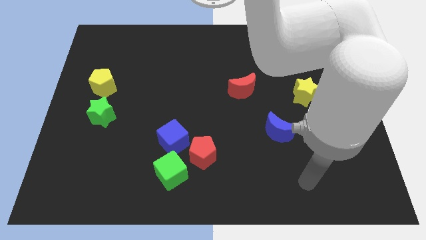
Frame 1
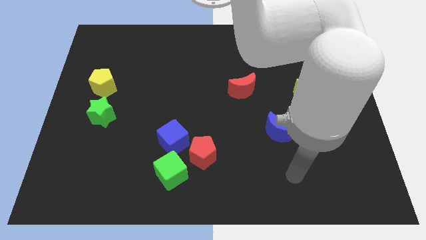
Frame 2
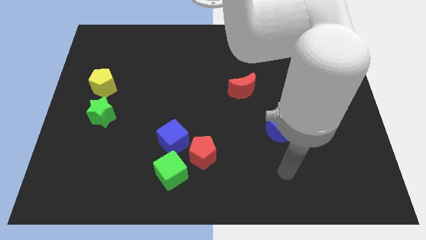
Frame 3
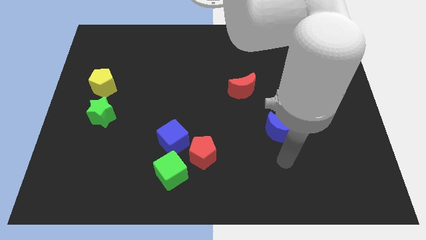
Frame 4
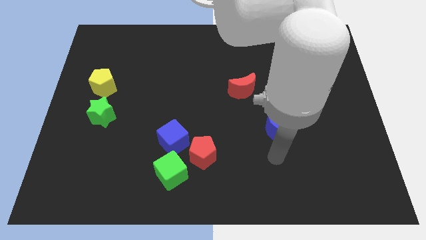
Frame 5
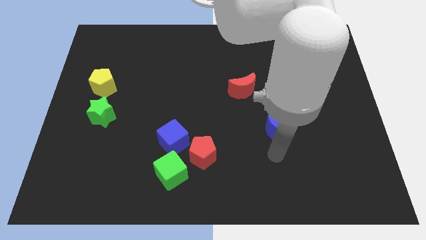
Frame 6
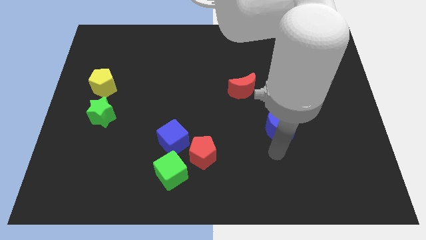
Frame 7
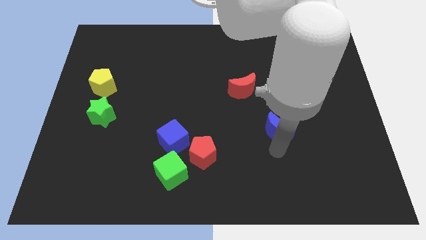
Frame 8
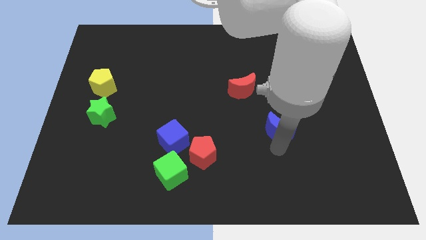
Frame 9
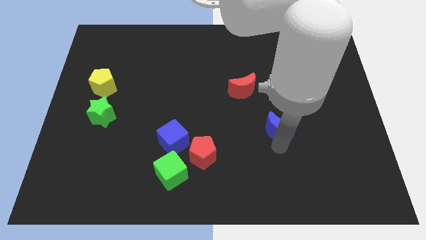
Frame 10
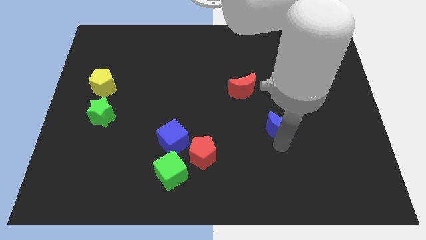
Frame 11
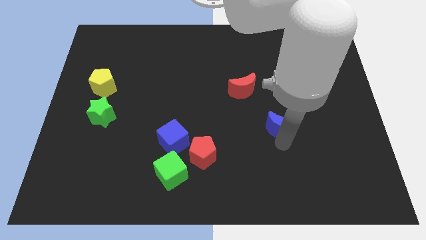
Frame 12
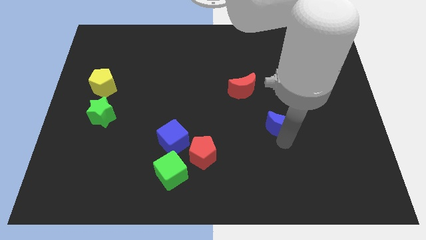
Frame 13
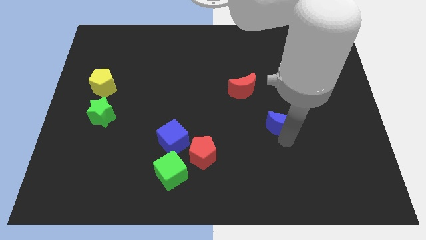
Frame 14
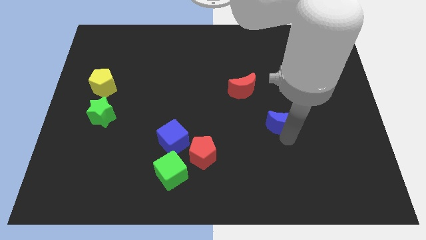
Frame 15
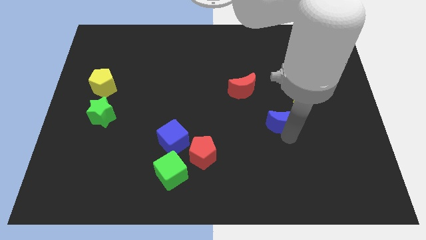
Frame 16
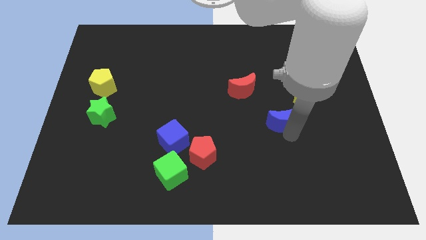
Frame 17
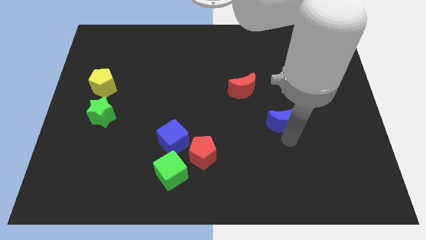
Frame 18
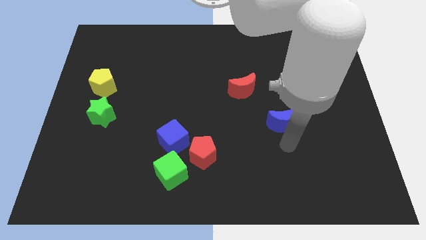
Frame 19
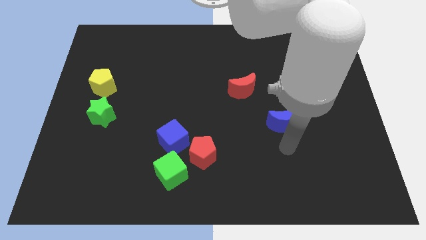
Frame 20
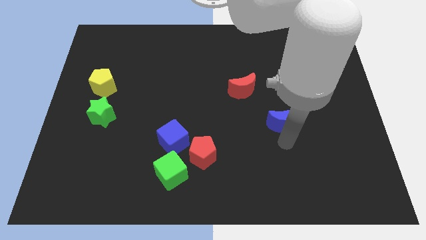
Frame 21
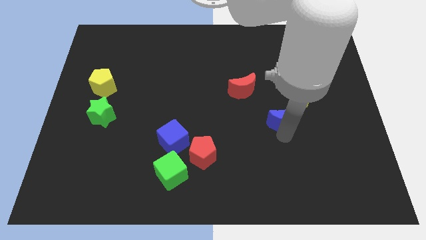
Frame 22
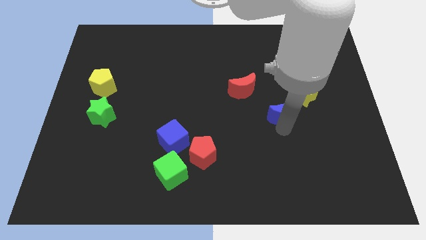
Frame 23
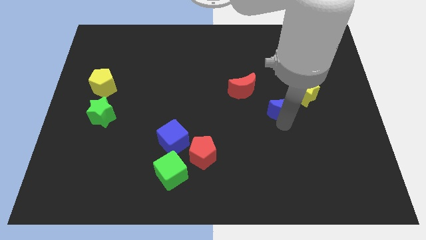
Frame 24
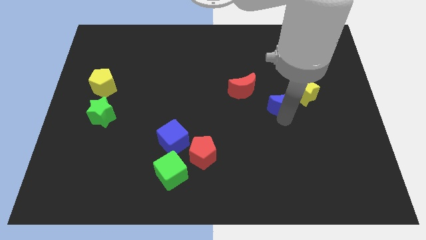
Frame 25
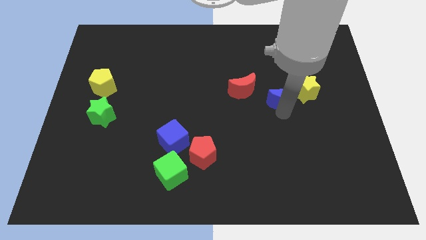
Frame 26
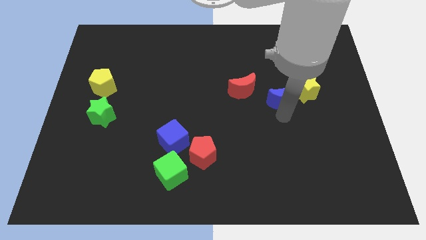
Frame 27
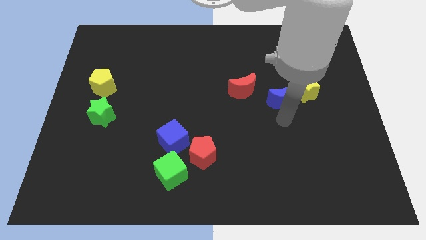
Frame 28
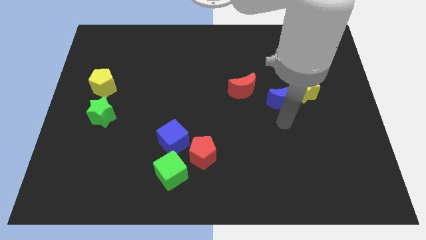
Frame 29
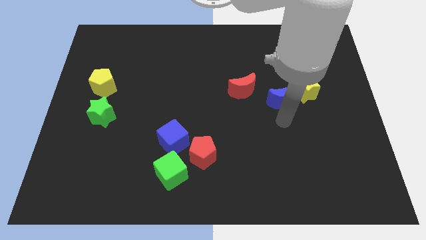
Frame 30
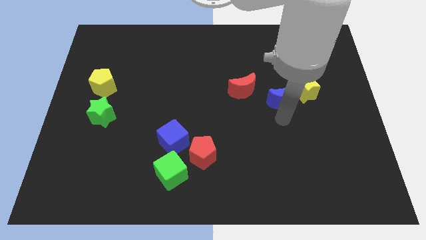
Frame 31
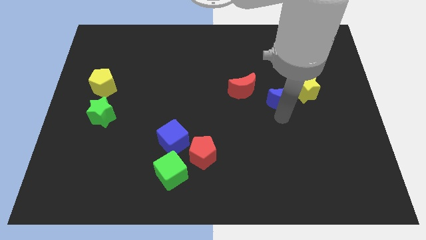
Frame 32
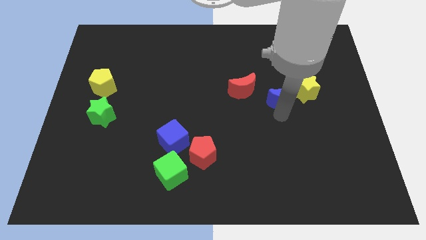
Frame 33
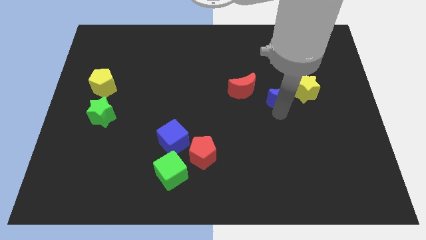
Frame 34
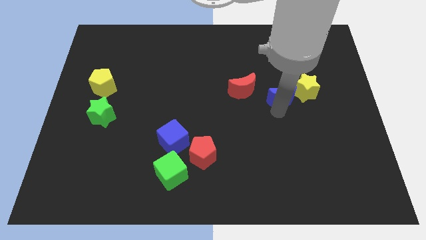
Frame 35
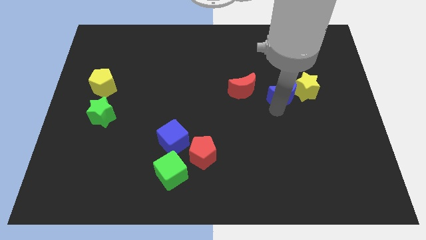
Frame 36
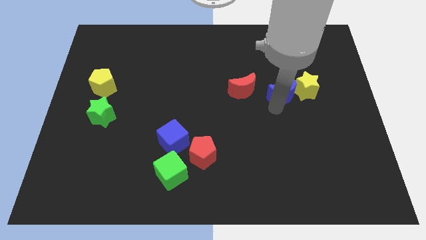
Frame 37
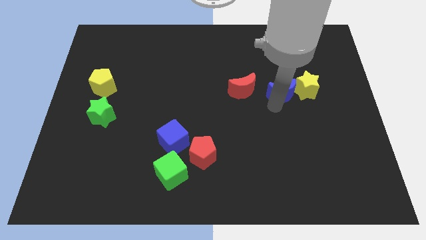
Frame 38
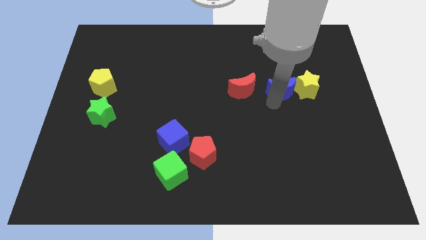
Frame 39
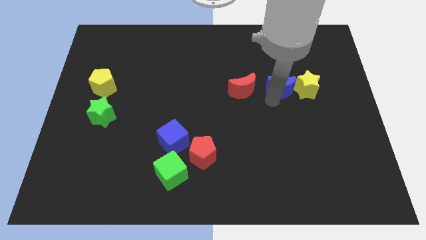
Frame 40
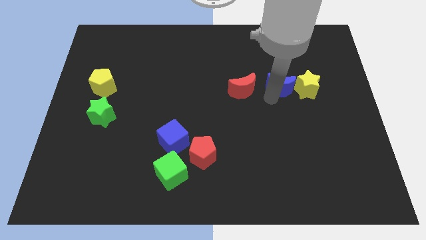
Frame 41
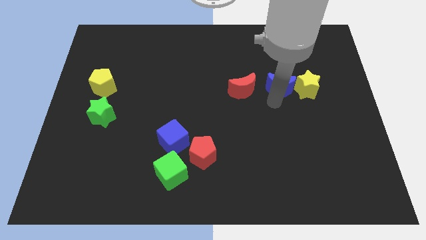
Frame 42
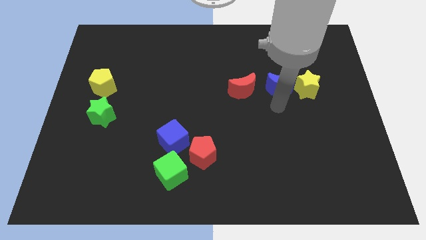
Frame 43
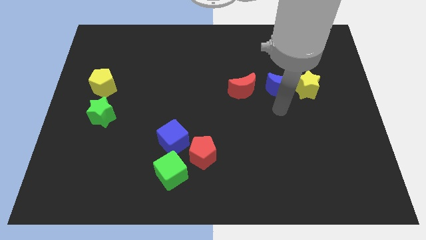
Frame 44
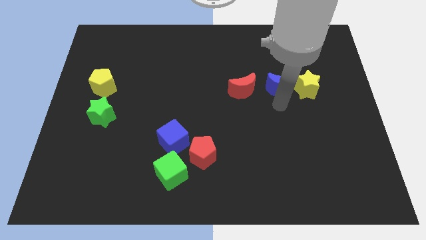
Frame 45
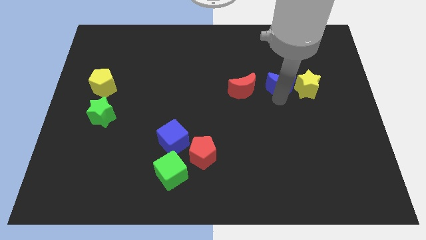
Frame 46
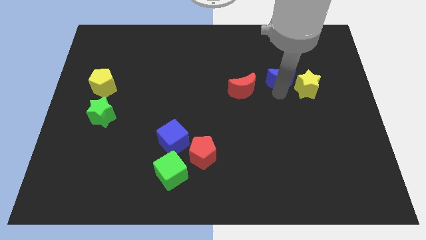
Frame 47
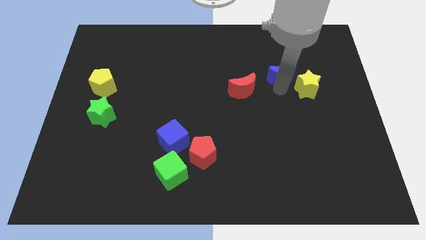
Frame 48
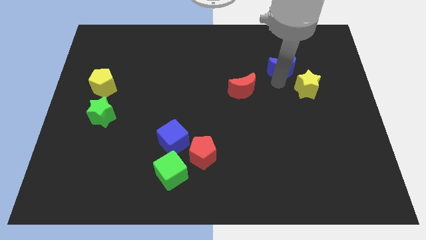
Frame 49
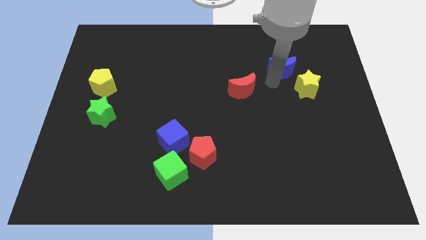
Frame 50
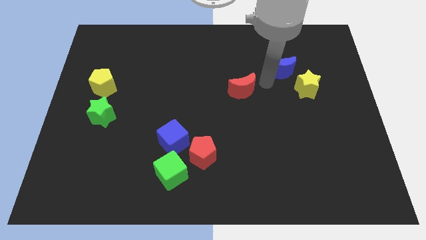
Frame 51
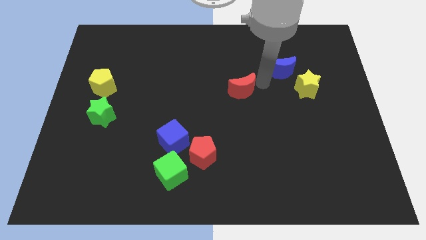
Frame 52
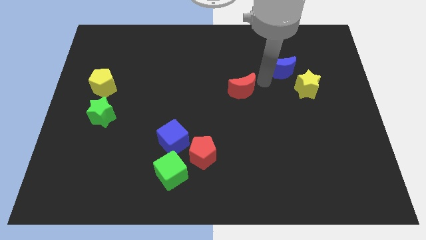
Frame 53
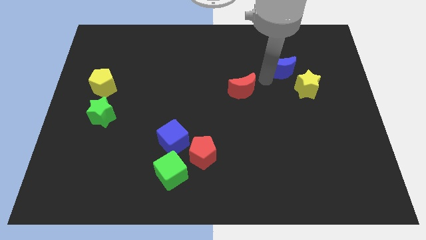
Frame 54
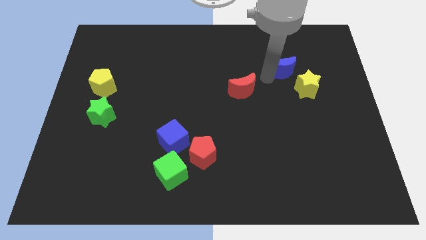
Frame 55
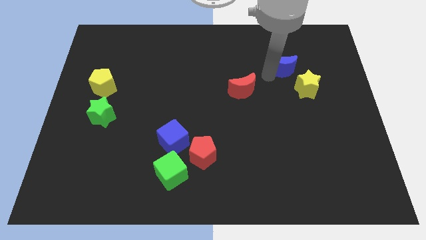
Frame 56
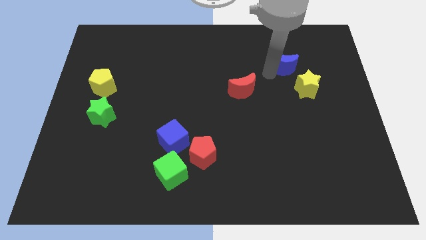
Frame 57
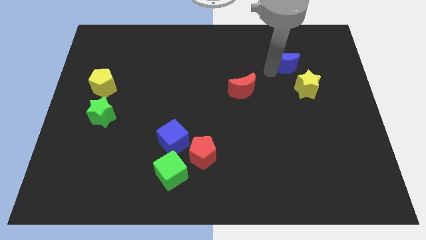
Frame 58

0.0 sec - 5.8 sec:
move the blue moon to the top of the yellow star

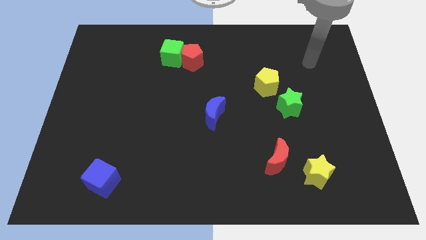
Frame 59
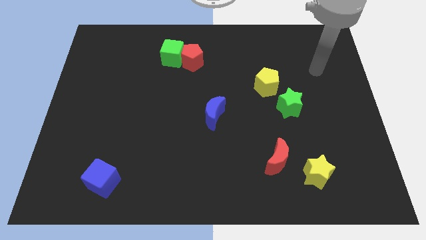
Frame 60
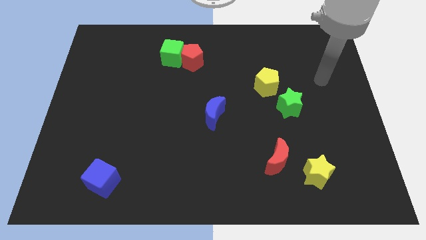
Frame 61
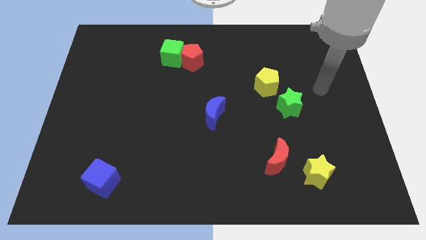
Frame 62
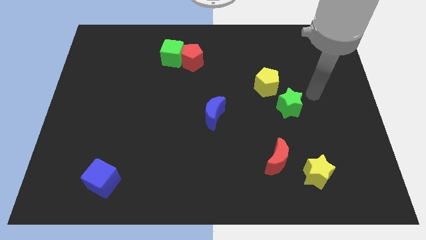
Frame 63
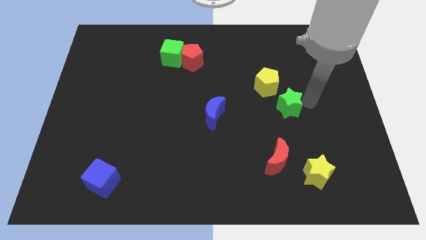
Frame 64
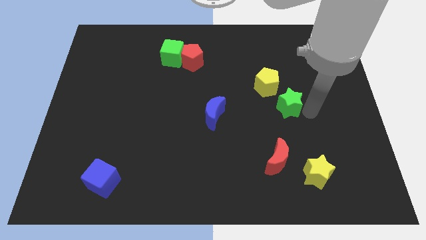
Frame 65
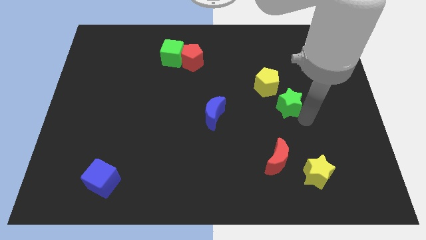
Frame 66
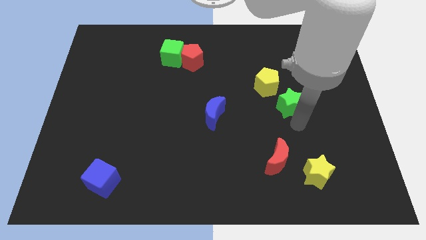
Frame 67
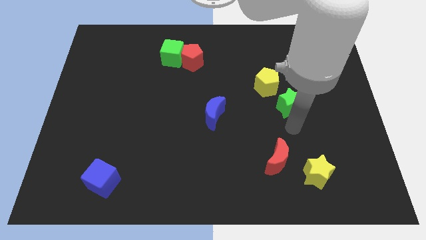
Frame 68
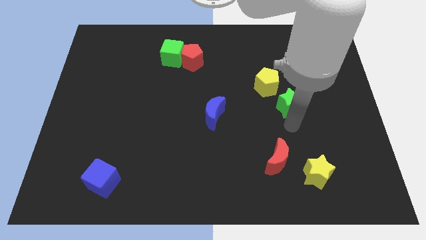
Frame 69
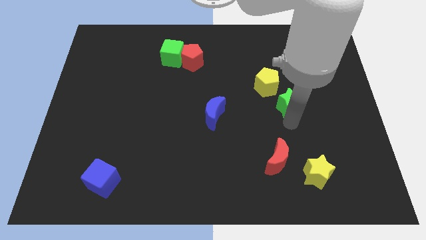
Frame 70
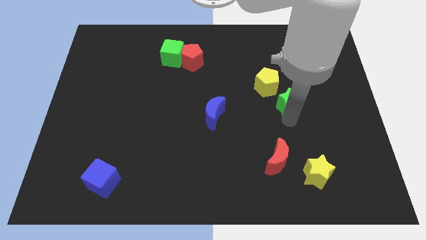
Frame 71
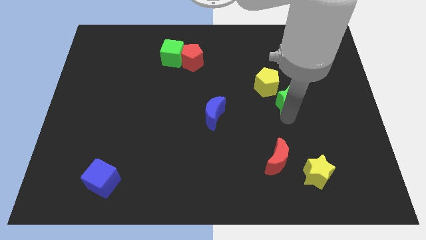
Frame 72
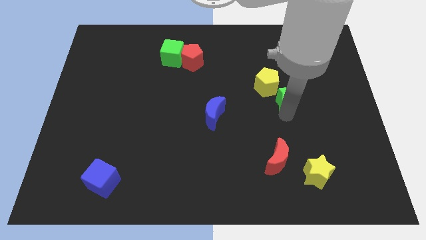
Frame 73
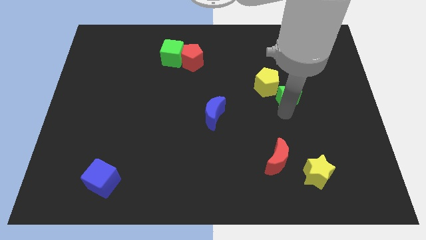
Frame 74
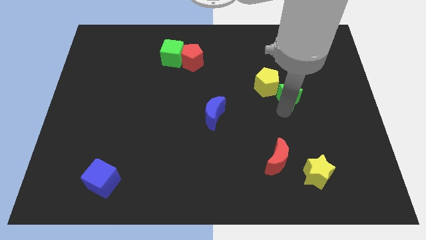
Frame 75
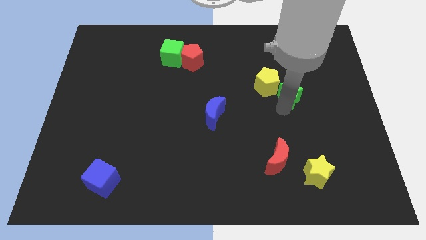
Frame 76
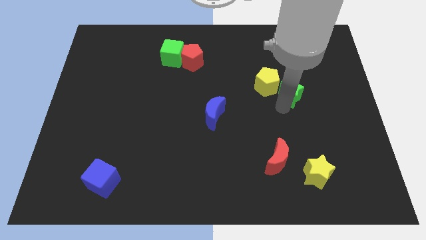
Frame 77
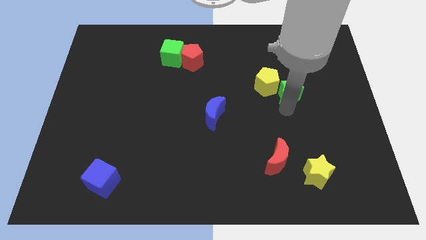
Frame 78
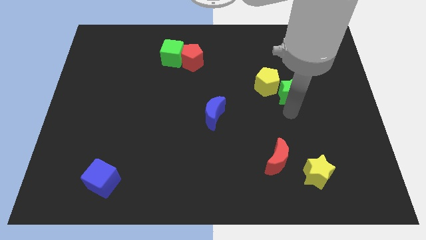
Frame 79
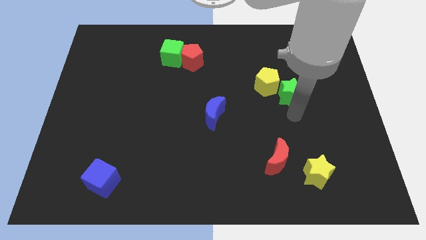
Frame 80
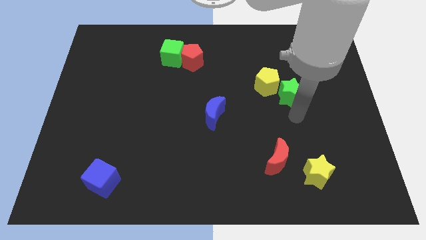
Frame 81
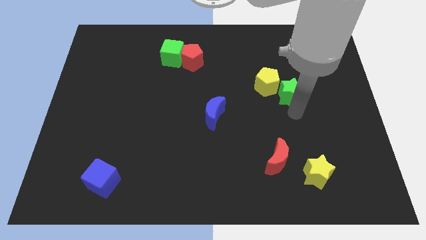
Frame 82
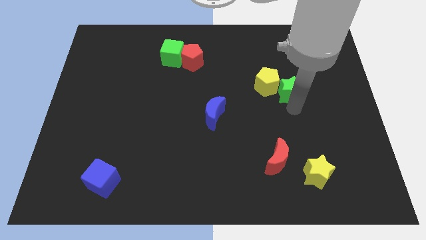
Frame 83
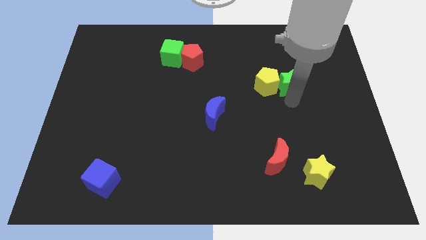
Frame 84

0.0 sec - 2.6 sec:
move the green star to the top right side of the yellow pentagon
